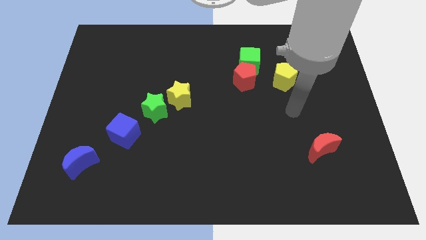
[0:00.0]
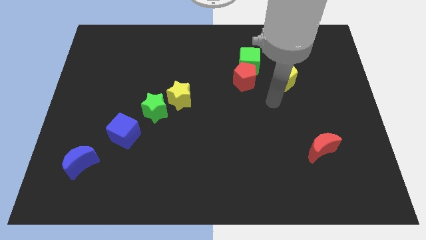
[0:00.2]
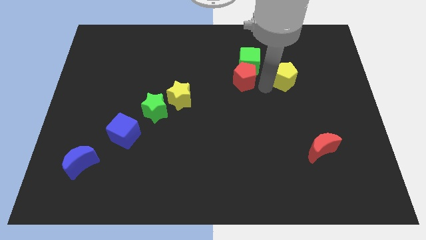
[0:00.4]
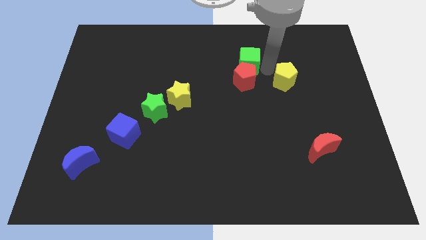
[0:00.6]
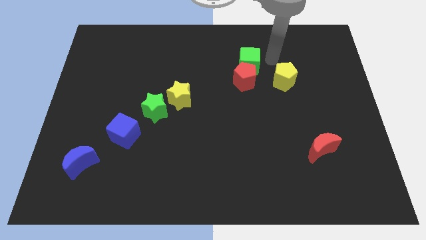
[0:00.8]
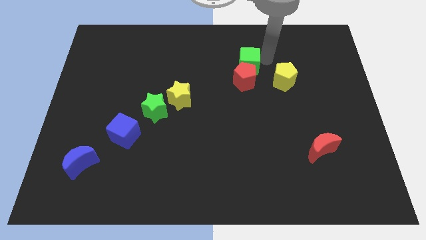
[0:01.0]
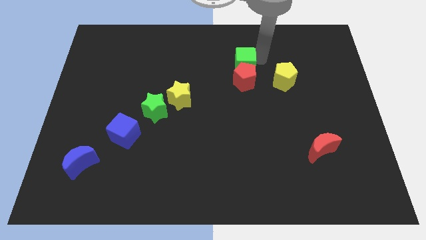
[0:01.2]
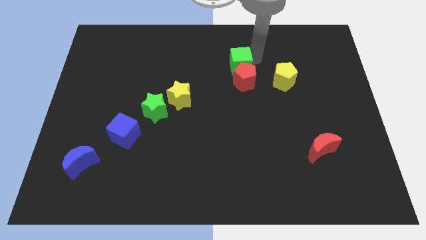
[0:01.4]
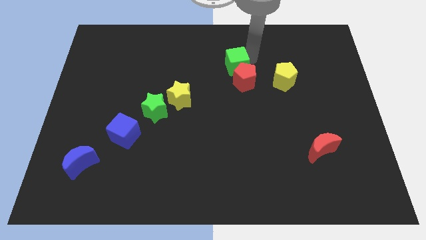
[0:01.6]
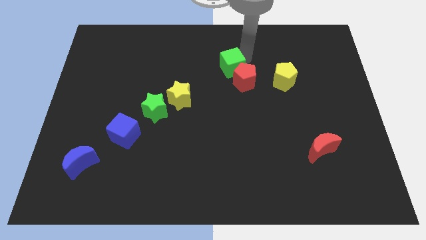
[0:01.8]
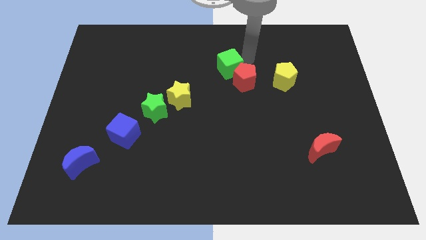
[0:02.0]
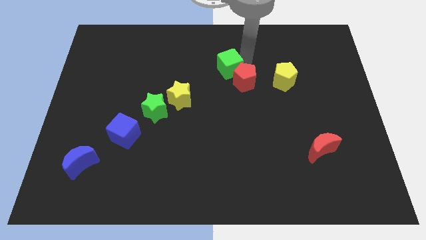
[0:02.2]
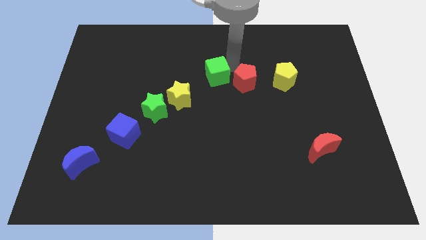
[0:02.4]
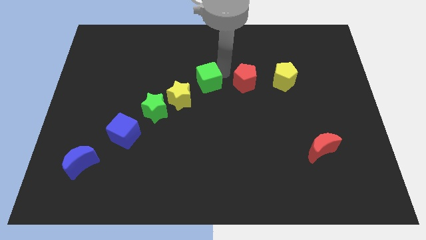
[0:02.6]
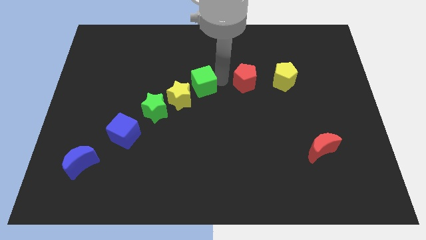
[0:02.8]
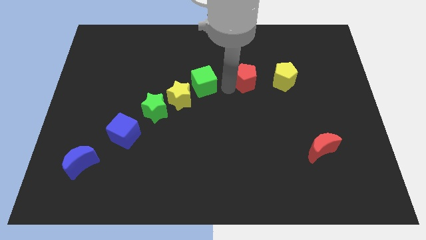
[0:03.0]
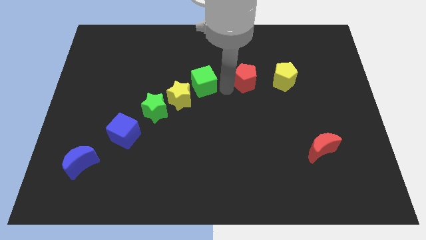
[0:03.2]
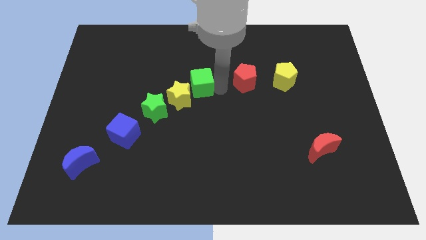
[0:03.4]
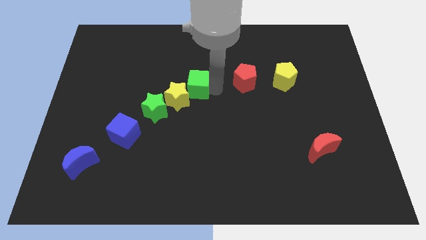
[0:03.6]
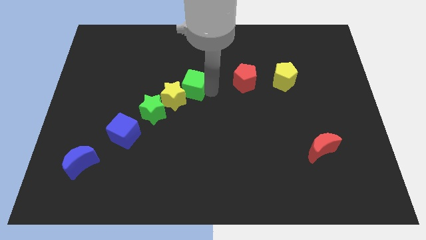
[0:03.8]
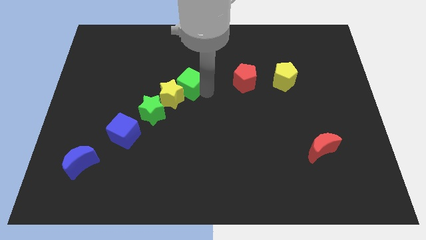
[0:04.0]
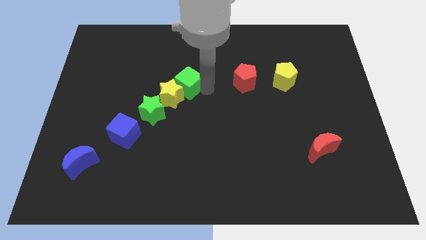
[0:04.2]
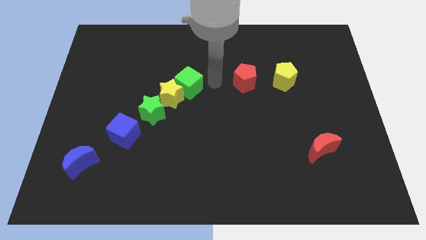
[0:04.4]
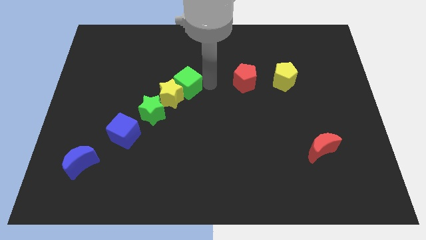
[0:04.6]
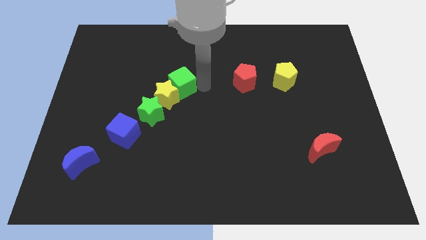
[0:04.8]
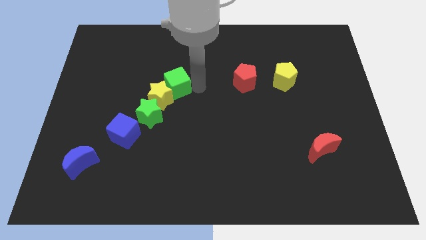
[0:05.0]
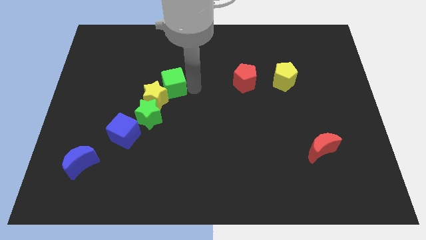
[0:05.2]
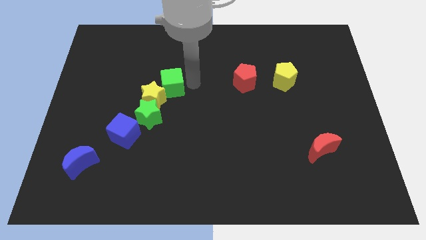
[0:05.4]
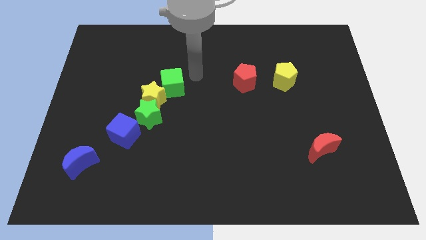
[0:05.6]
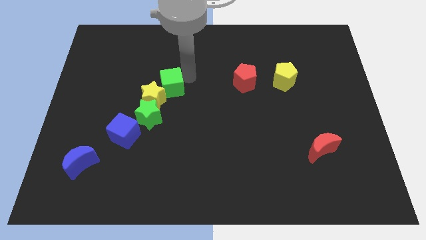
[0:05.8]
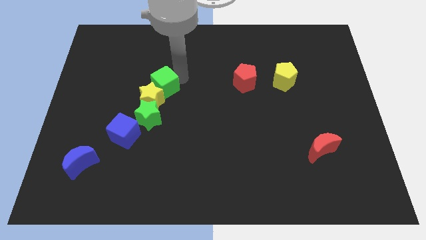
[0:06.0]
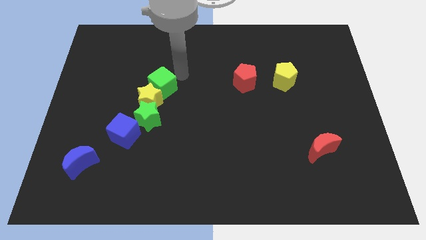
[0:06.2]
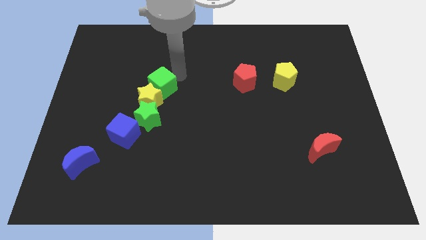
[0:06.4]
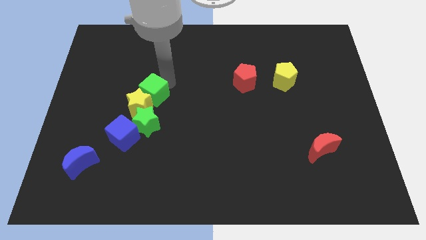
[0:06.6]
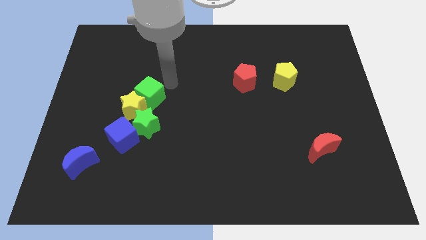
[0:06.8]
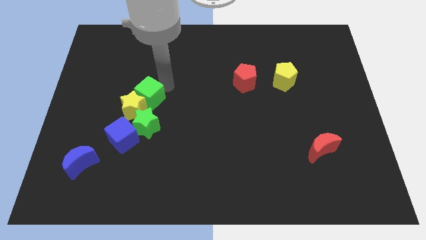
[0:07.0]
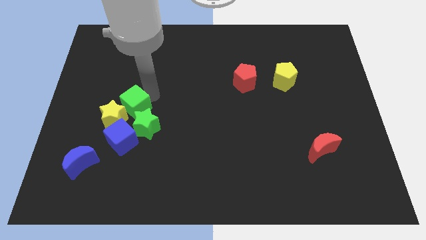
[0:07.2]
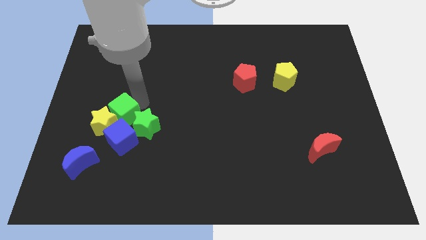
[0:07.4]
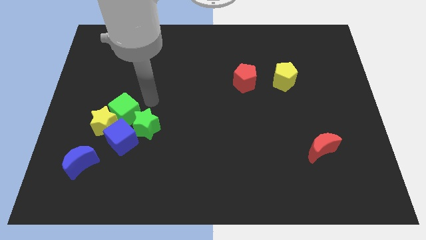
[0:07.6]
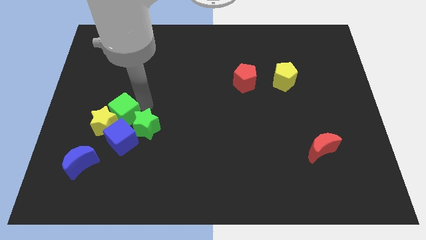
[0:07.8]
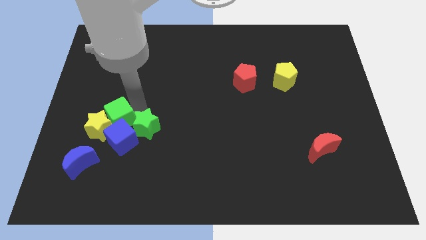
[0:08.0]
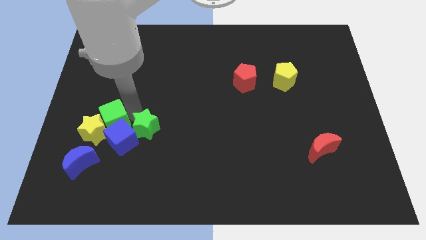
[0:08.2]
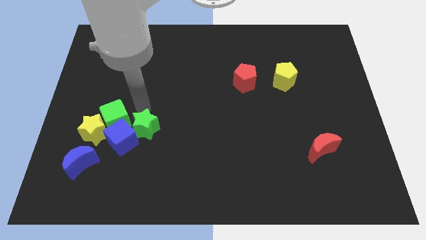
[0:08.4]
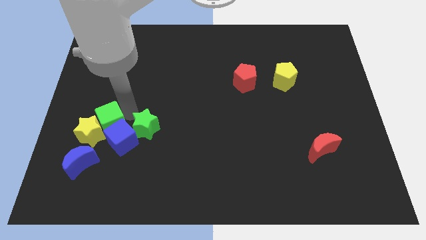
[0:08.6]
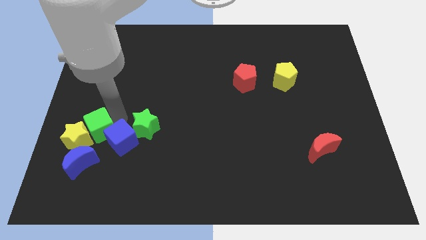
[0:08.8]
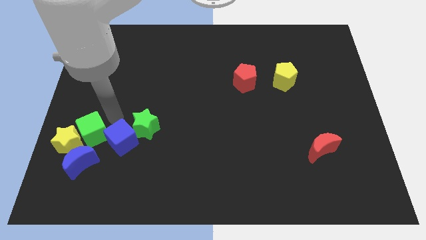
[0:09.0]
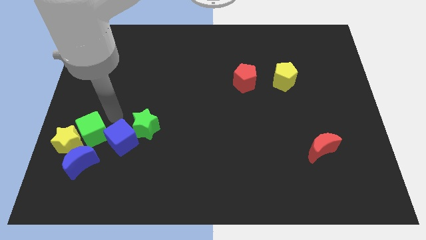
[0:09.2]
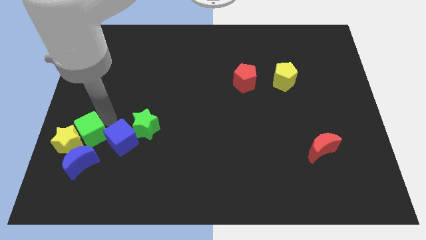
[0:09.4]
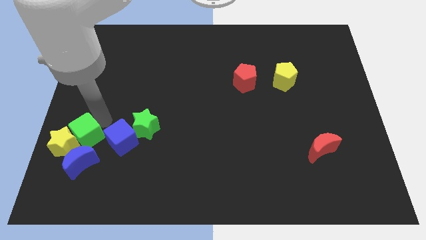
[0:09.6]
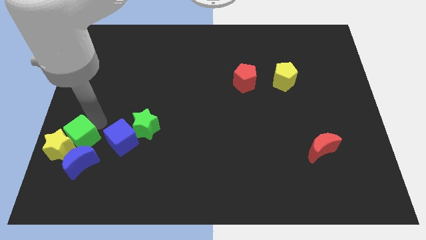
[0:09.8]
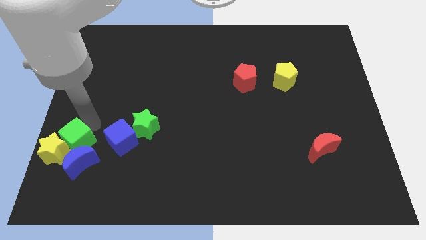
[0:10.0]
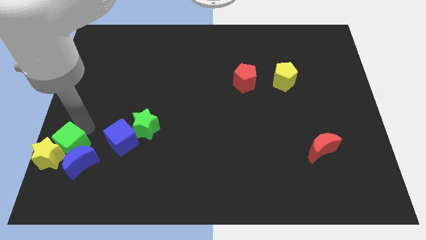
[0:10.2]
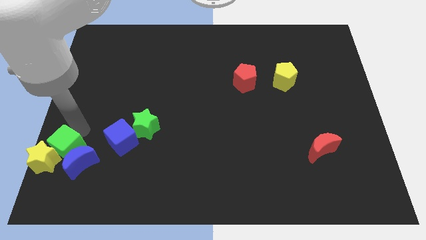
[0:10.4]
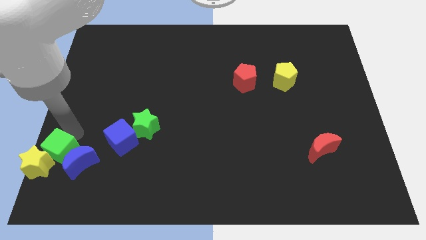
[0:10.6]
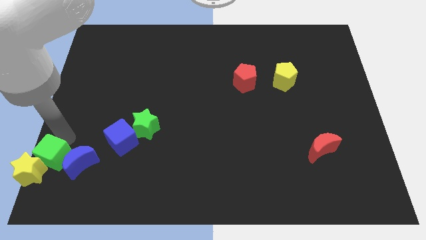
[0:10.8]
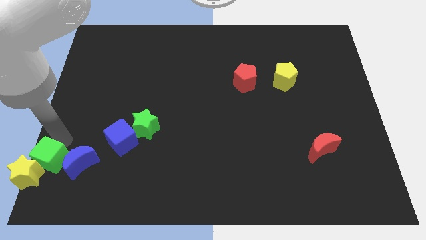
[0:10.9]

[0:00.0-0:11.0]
put the green cube to the bottom left of the board

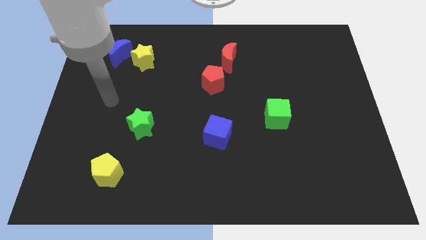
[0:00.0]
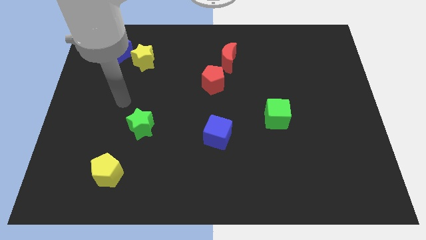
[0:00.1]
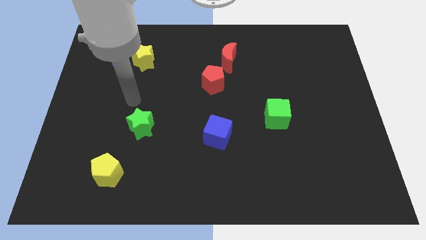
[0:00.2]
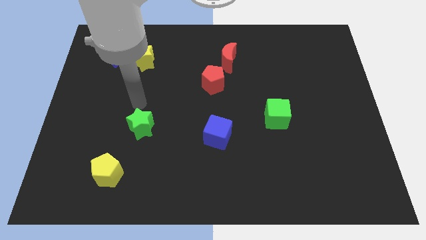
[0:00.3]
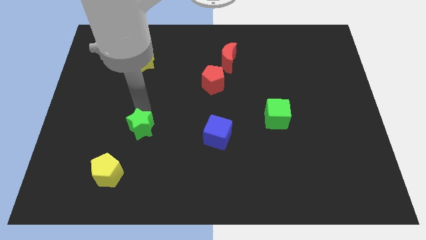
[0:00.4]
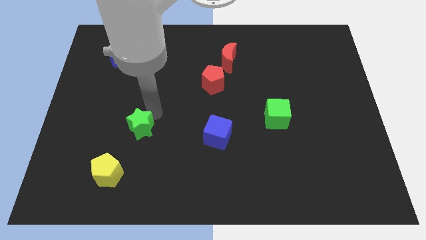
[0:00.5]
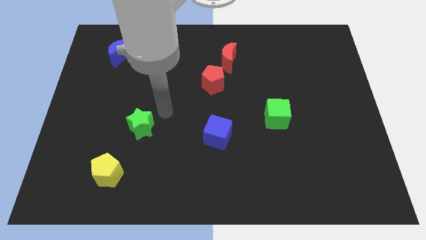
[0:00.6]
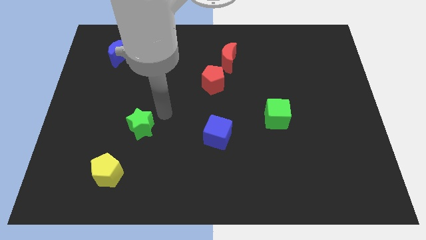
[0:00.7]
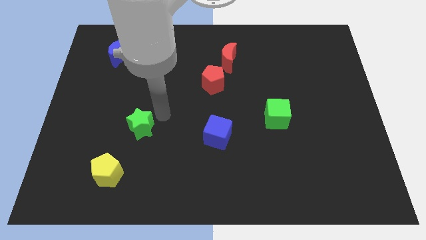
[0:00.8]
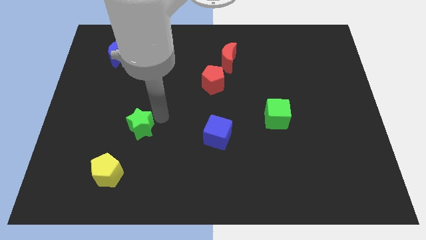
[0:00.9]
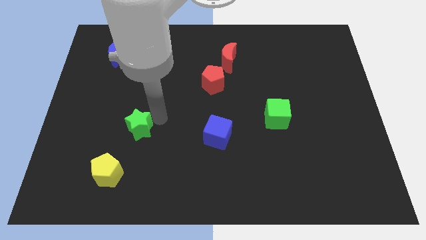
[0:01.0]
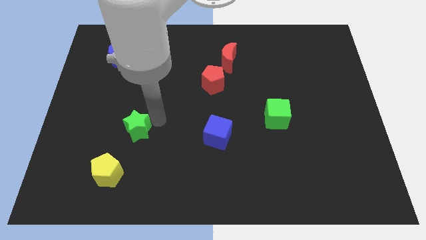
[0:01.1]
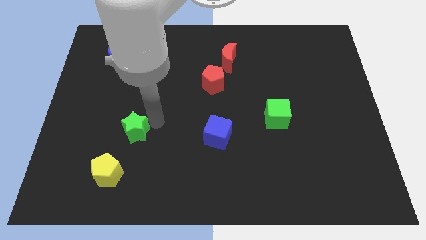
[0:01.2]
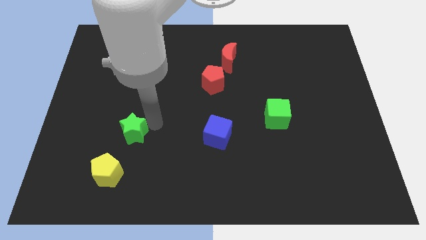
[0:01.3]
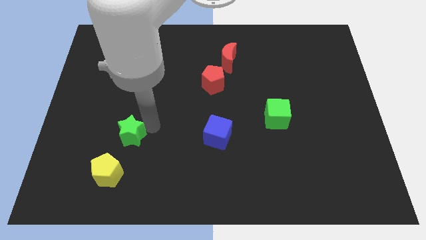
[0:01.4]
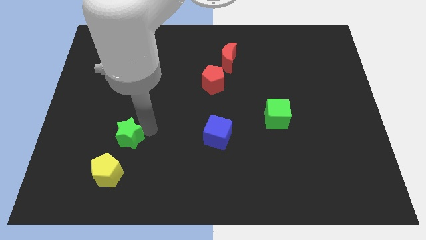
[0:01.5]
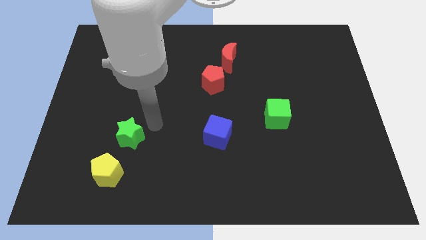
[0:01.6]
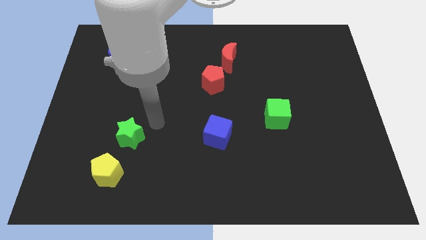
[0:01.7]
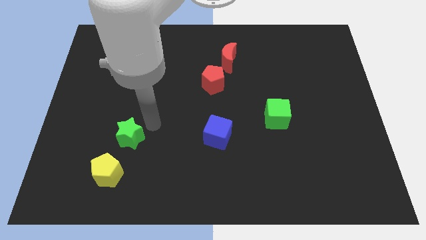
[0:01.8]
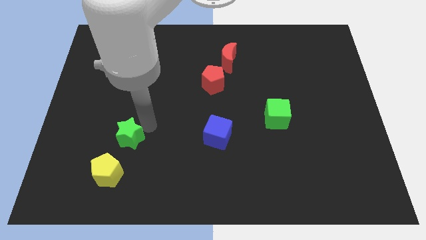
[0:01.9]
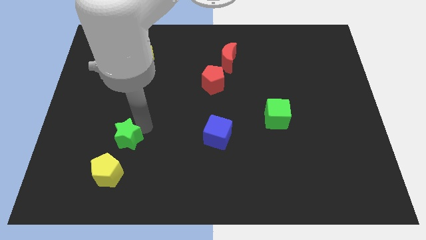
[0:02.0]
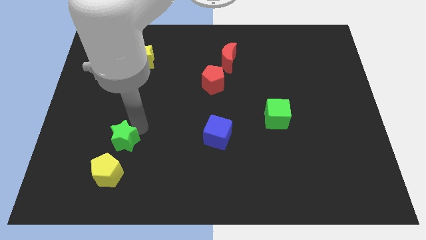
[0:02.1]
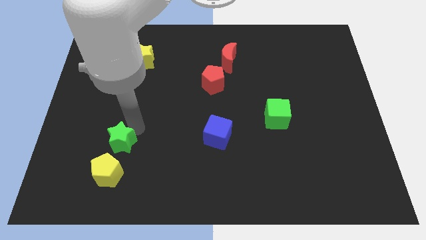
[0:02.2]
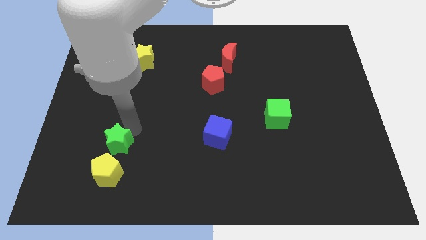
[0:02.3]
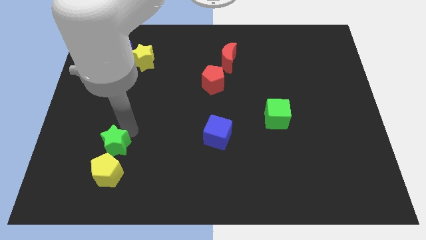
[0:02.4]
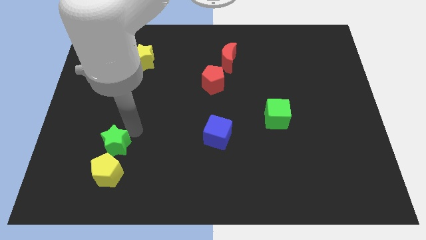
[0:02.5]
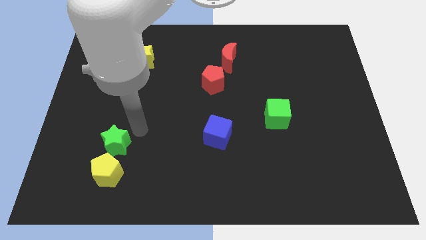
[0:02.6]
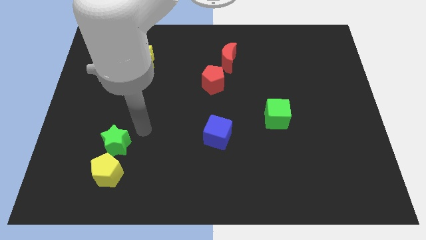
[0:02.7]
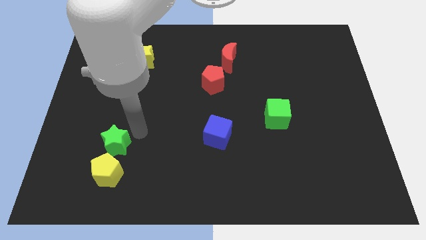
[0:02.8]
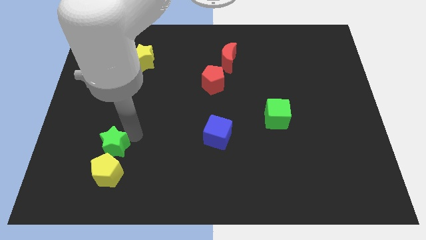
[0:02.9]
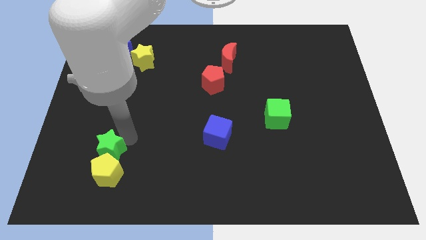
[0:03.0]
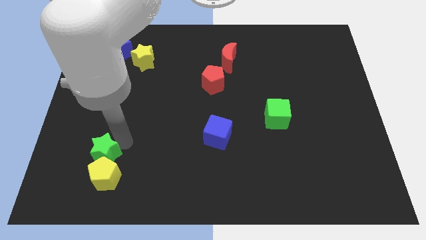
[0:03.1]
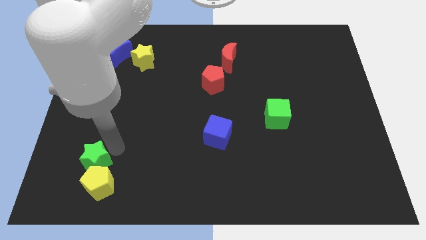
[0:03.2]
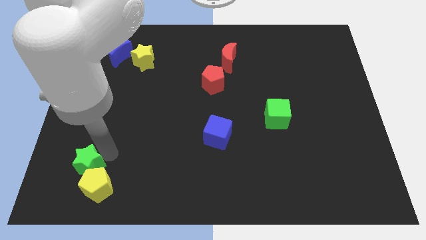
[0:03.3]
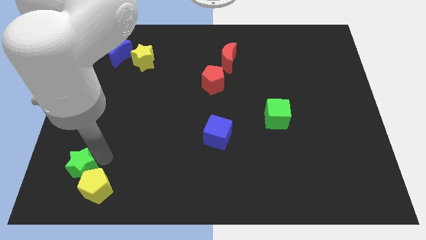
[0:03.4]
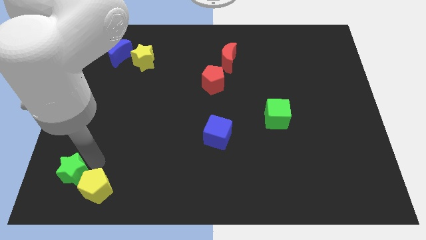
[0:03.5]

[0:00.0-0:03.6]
move the green star to the bottom left of the board
